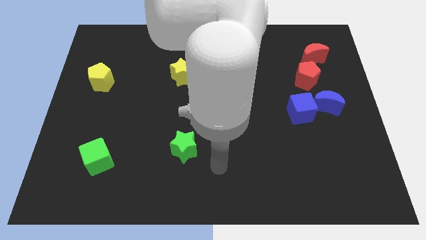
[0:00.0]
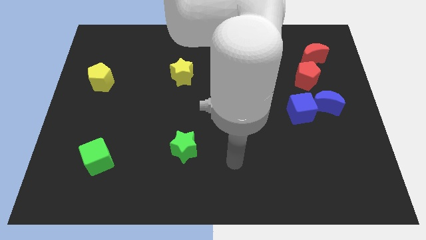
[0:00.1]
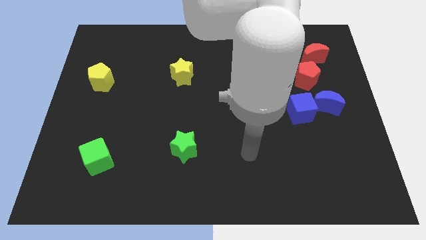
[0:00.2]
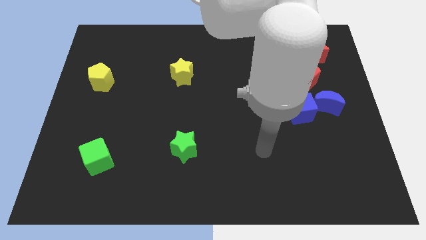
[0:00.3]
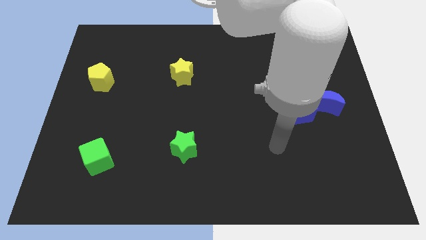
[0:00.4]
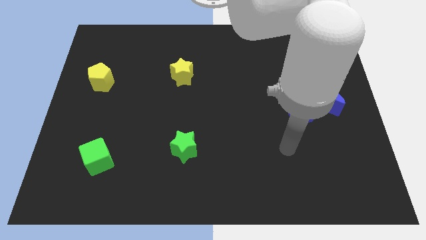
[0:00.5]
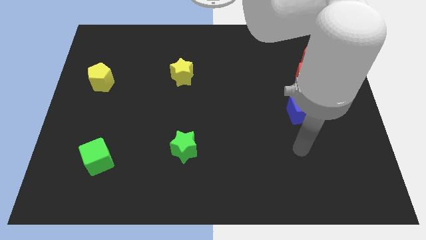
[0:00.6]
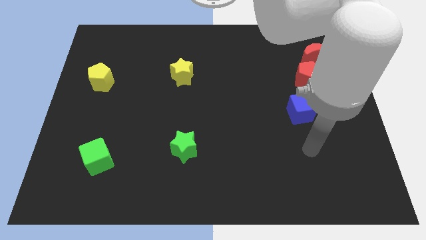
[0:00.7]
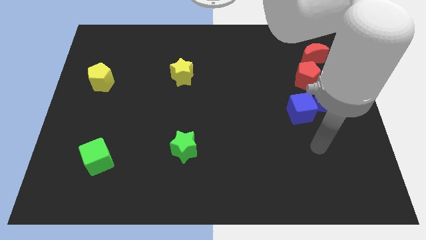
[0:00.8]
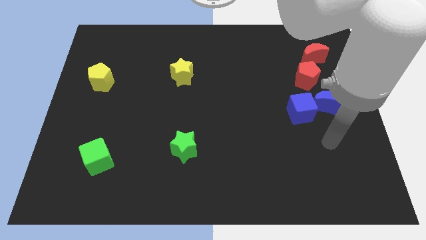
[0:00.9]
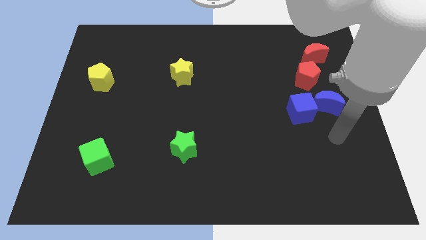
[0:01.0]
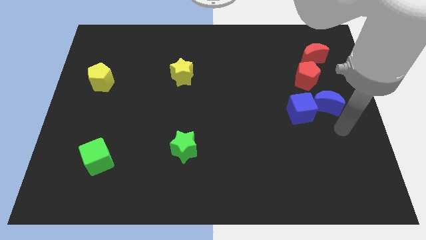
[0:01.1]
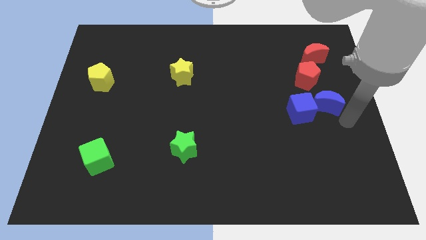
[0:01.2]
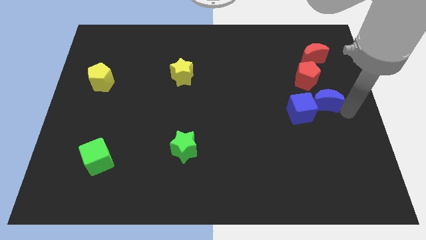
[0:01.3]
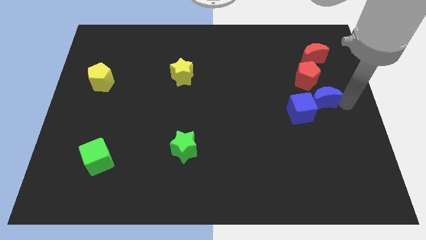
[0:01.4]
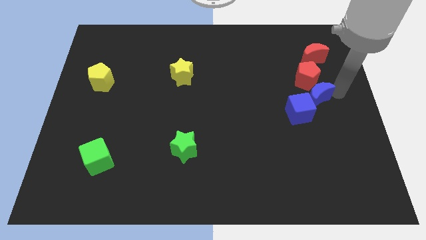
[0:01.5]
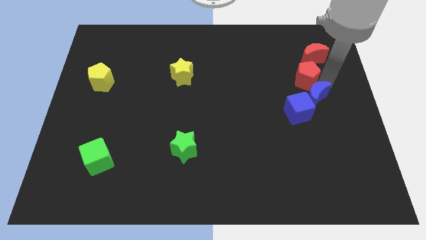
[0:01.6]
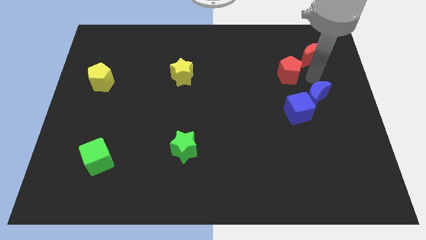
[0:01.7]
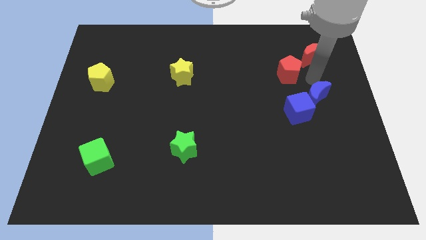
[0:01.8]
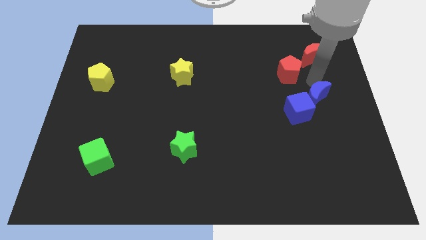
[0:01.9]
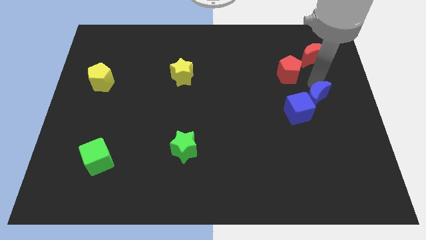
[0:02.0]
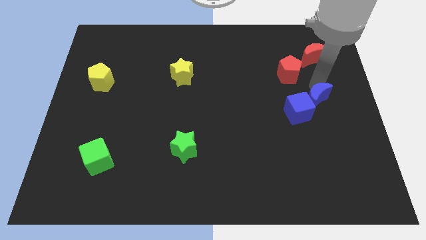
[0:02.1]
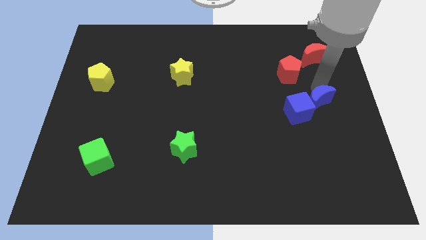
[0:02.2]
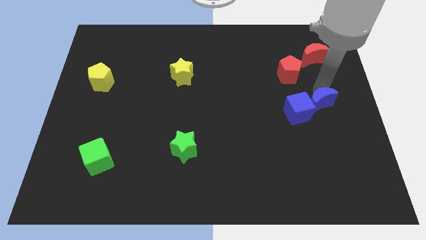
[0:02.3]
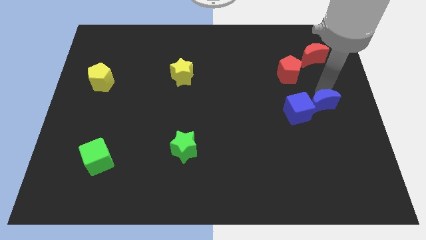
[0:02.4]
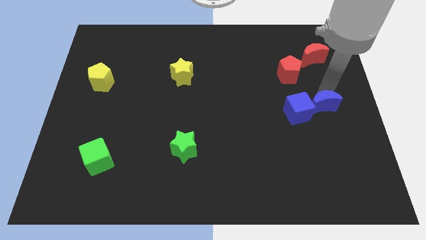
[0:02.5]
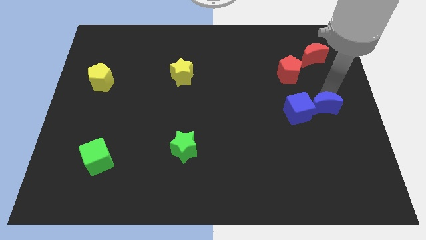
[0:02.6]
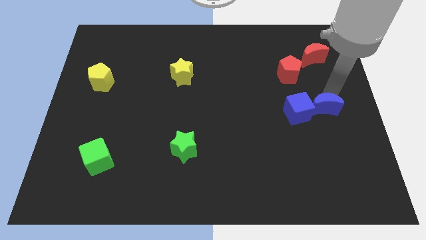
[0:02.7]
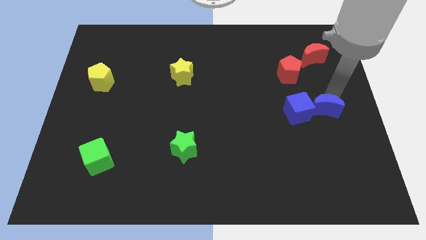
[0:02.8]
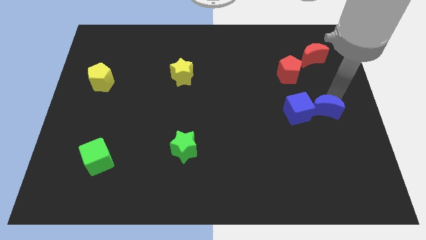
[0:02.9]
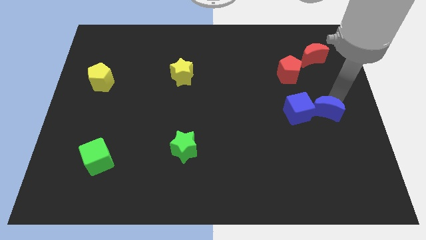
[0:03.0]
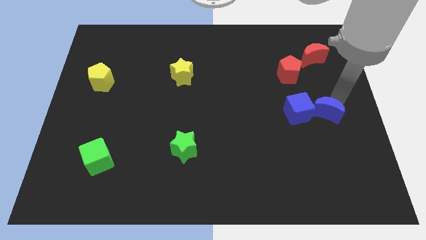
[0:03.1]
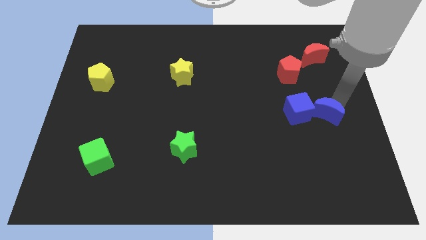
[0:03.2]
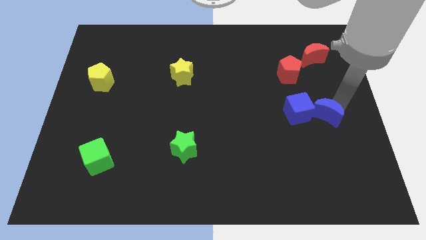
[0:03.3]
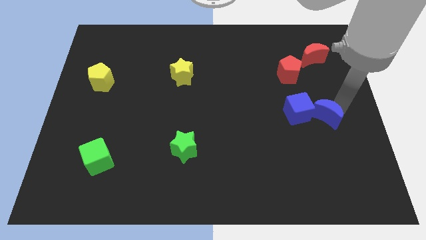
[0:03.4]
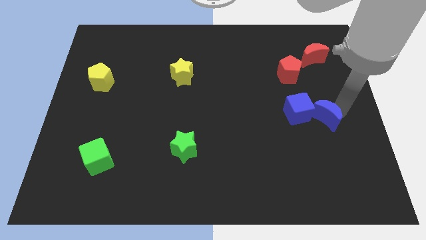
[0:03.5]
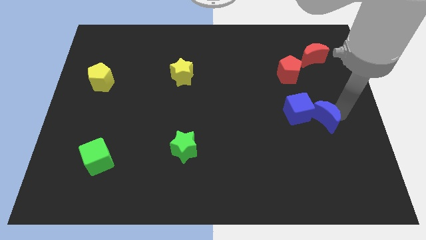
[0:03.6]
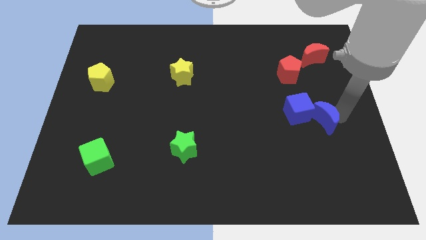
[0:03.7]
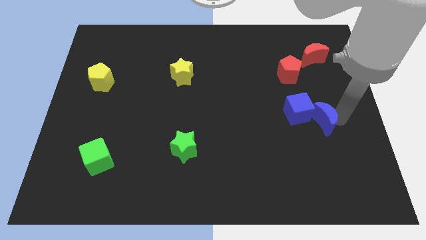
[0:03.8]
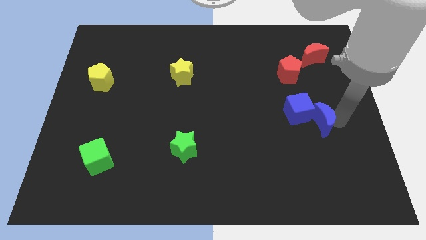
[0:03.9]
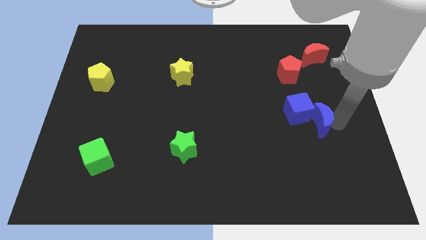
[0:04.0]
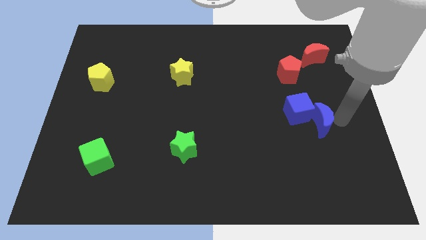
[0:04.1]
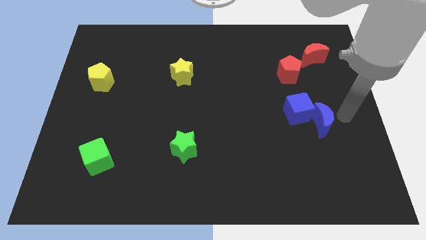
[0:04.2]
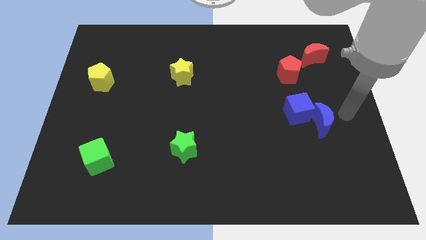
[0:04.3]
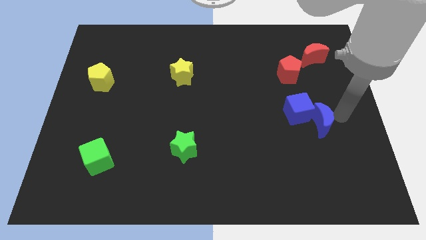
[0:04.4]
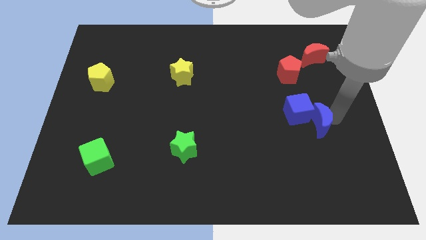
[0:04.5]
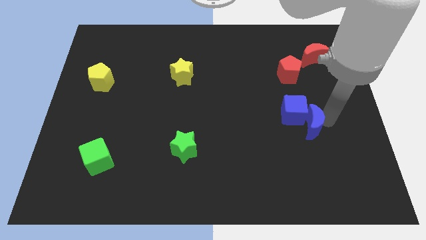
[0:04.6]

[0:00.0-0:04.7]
push the blue moon a bit downwards and to the left diagonally

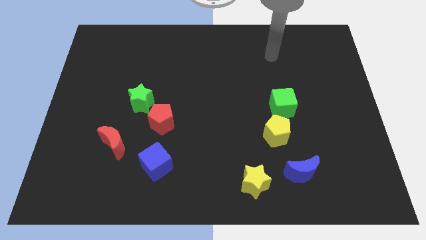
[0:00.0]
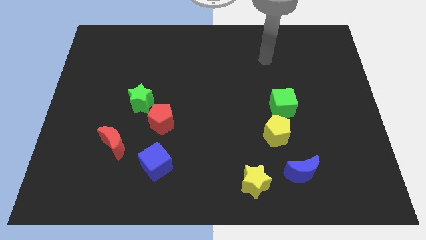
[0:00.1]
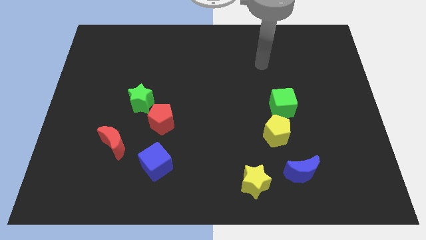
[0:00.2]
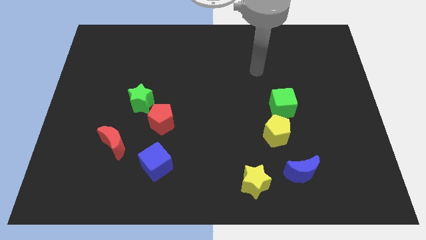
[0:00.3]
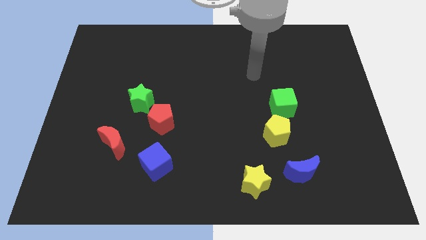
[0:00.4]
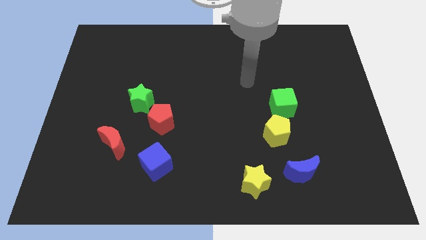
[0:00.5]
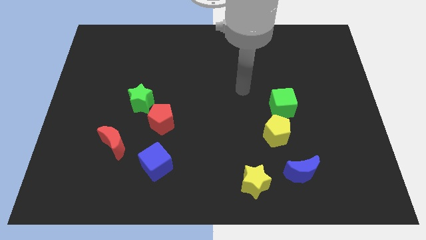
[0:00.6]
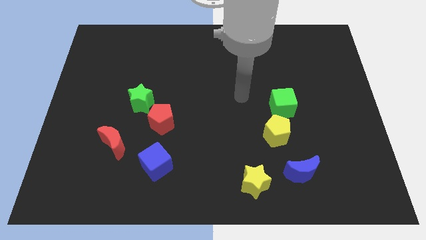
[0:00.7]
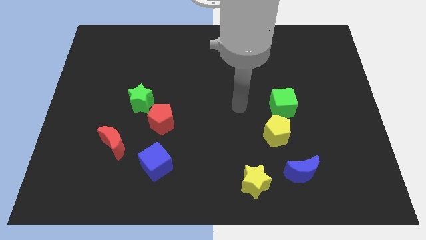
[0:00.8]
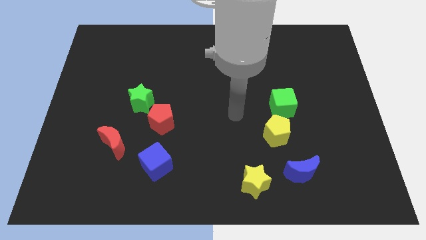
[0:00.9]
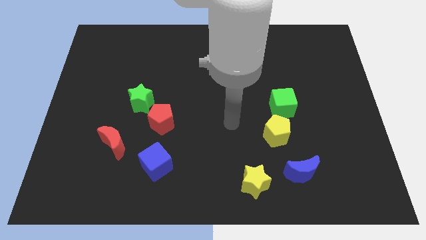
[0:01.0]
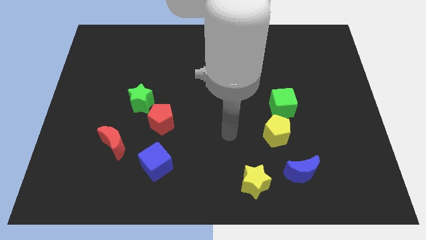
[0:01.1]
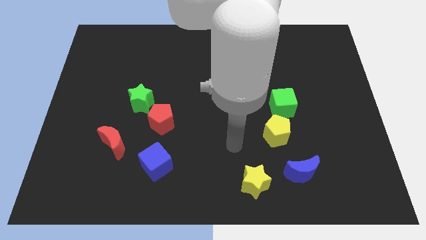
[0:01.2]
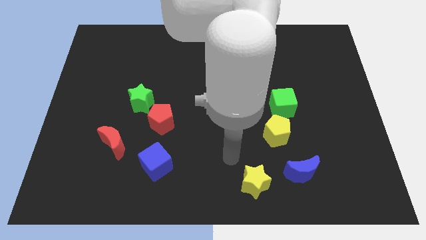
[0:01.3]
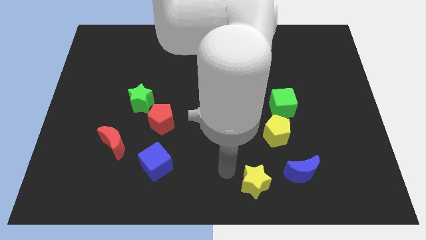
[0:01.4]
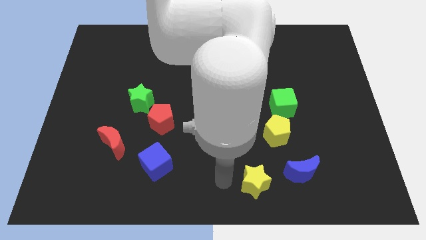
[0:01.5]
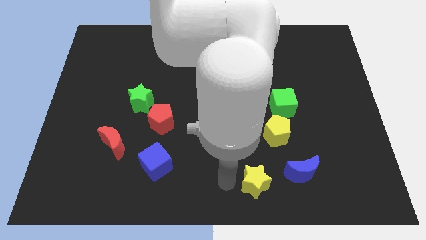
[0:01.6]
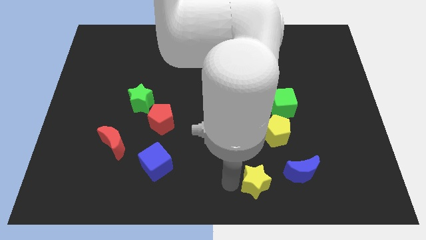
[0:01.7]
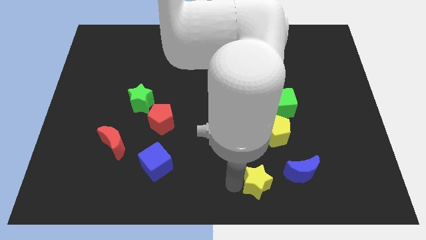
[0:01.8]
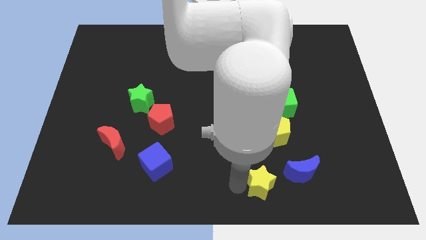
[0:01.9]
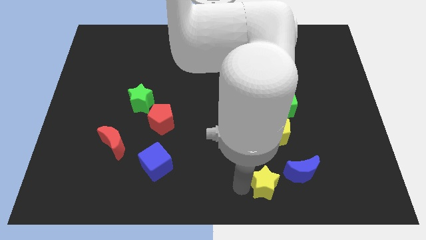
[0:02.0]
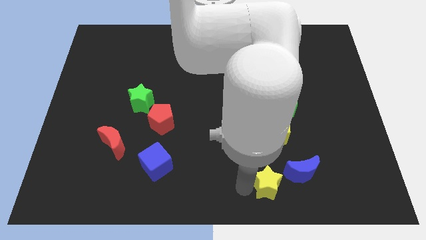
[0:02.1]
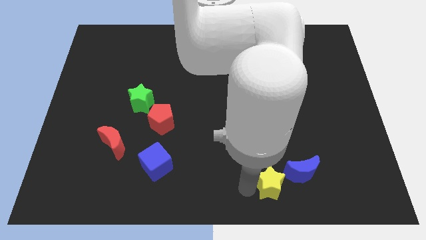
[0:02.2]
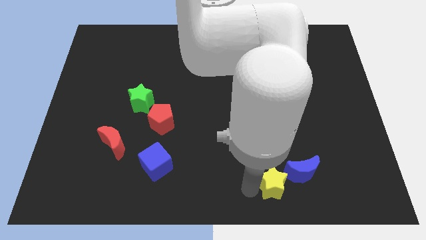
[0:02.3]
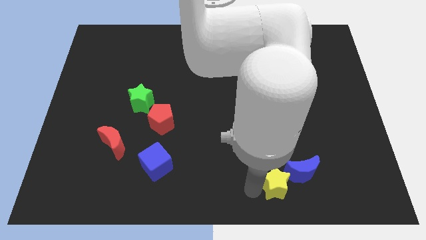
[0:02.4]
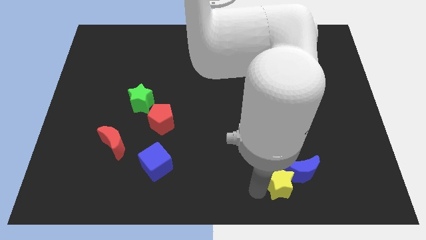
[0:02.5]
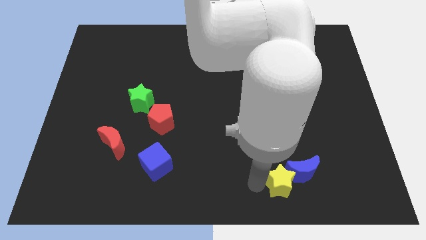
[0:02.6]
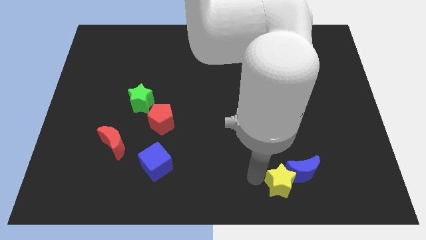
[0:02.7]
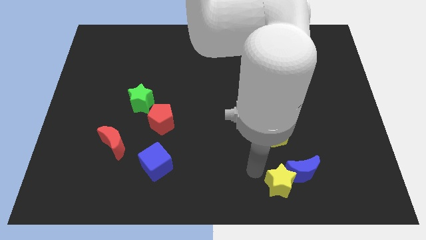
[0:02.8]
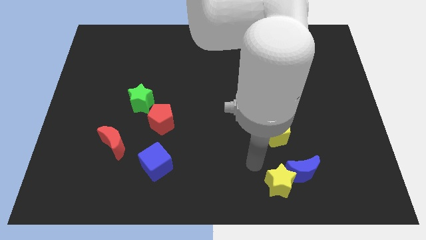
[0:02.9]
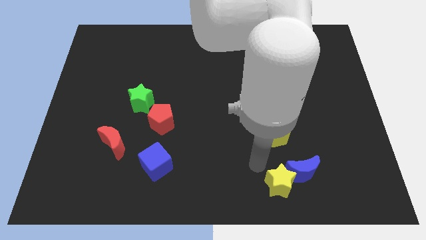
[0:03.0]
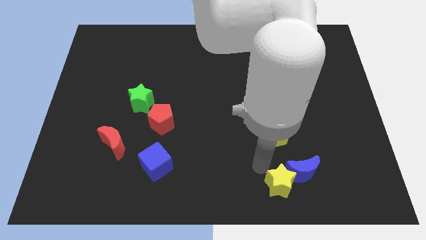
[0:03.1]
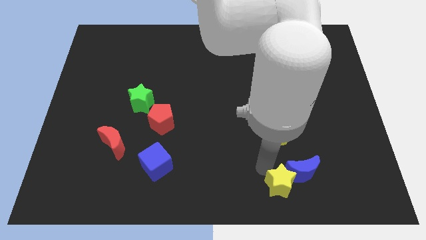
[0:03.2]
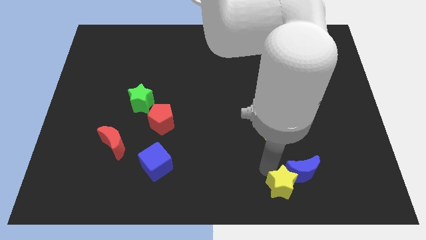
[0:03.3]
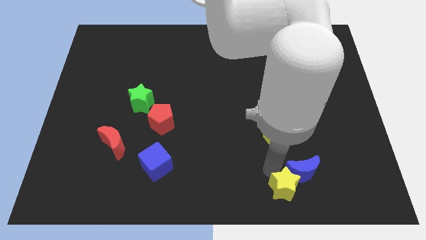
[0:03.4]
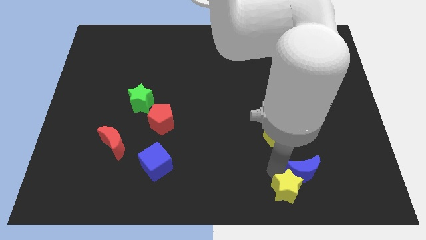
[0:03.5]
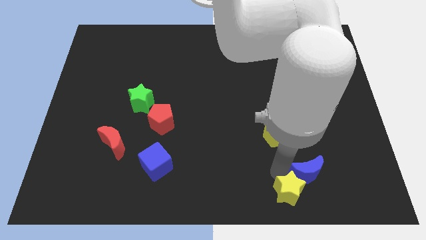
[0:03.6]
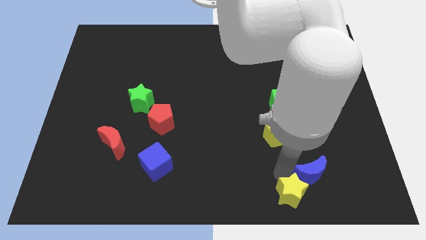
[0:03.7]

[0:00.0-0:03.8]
slide the yellow star right slightly
